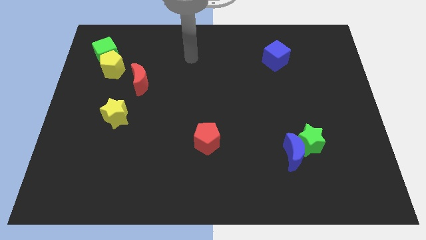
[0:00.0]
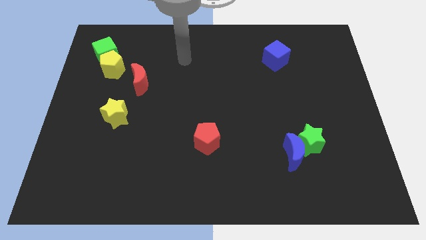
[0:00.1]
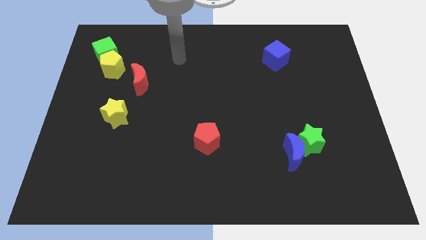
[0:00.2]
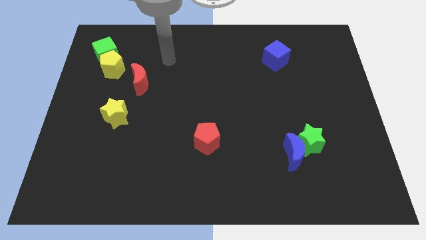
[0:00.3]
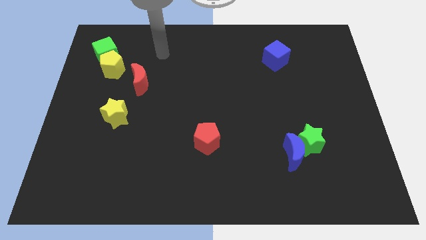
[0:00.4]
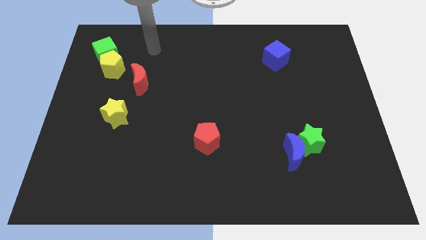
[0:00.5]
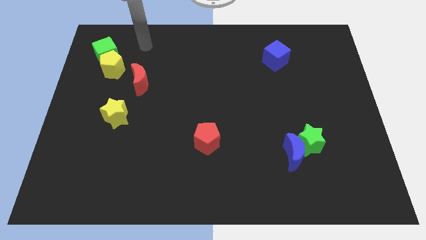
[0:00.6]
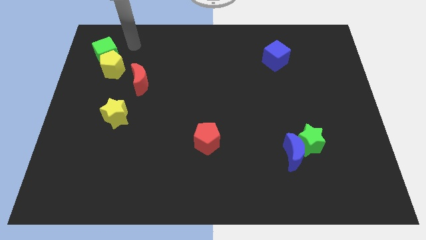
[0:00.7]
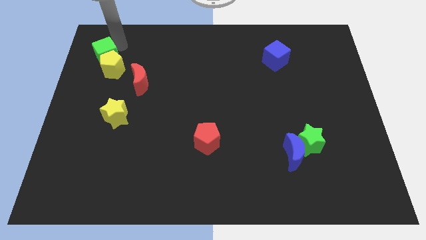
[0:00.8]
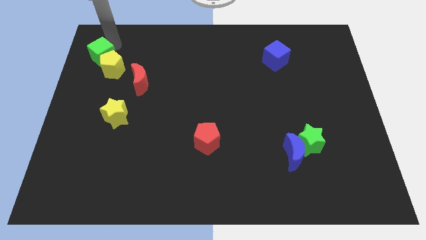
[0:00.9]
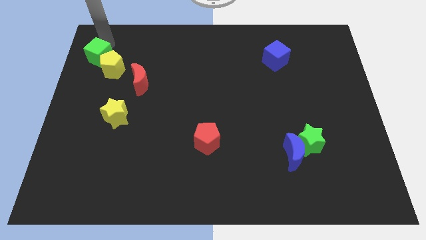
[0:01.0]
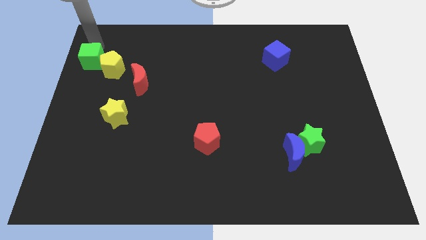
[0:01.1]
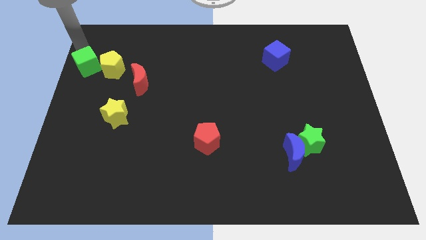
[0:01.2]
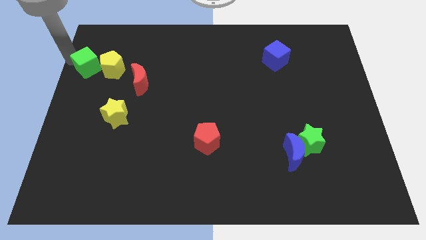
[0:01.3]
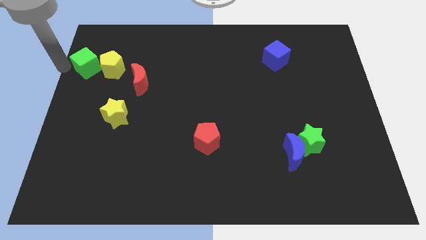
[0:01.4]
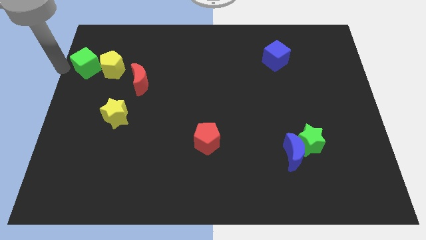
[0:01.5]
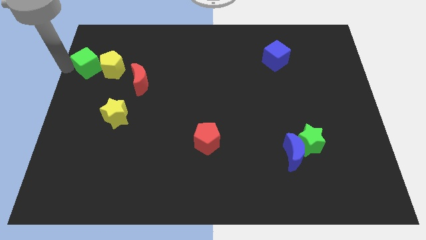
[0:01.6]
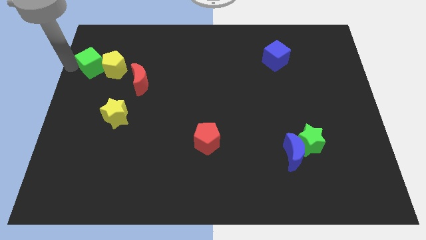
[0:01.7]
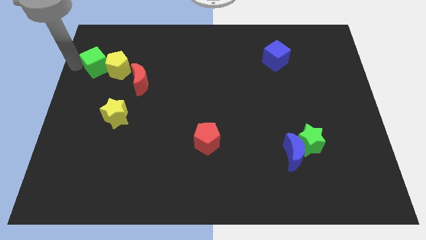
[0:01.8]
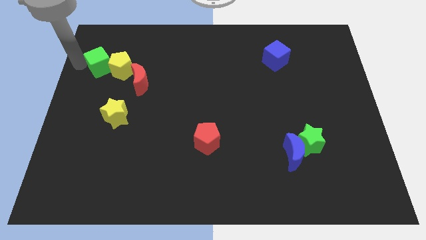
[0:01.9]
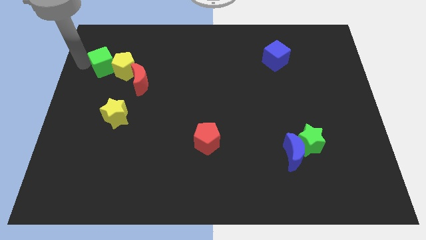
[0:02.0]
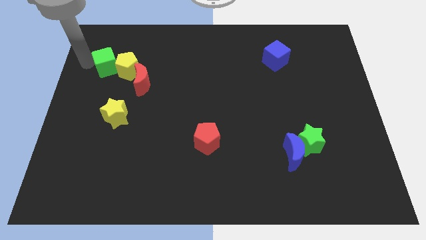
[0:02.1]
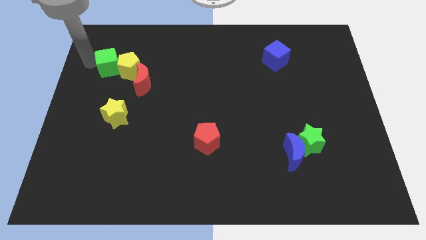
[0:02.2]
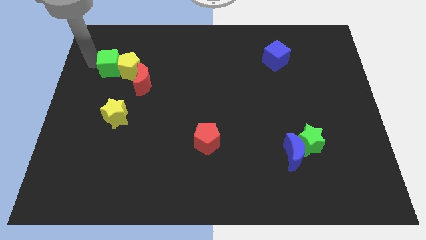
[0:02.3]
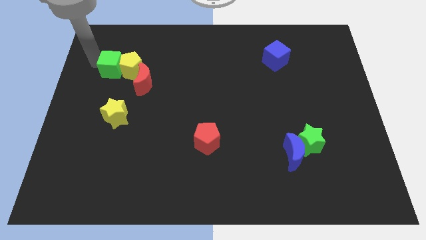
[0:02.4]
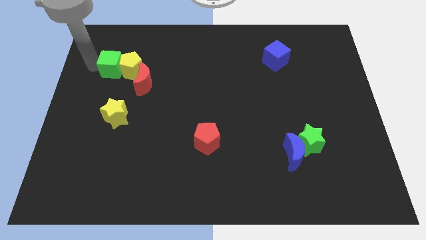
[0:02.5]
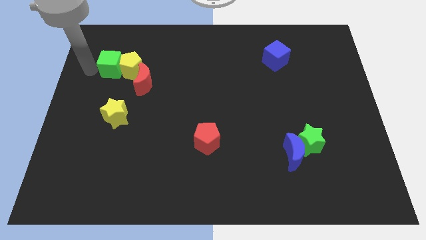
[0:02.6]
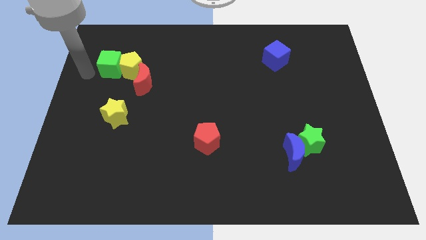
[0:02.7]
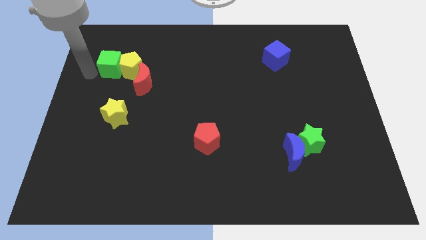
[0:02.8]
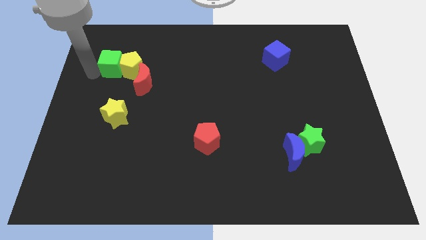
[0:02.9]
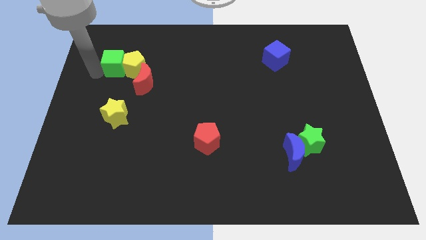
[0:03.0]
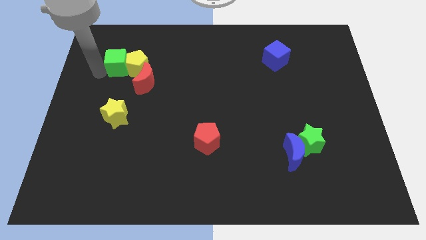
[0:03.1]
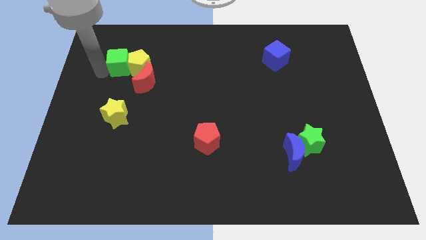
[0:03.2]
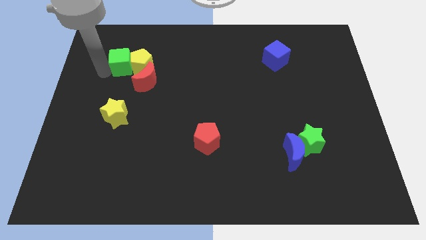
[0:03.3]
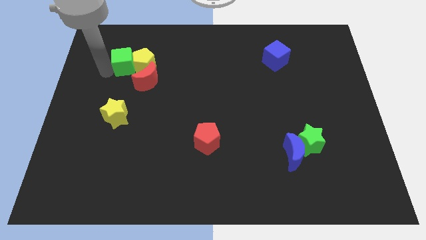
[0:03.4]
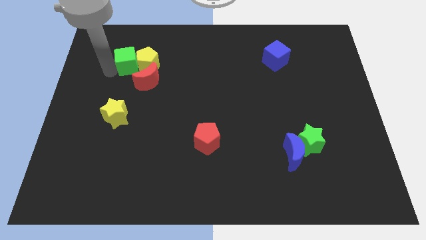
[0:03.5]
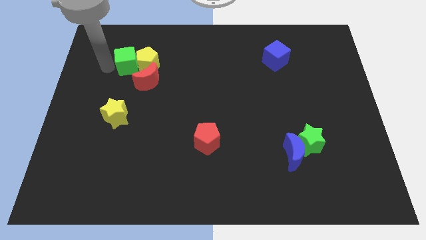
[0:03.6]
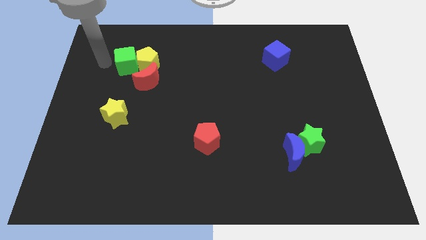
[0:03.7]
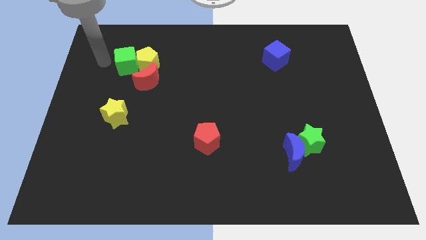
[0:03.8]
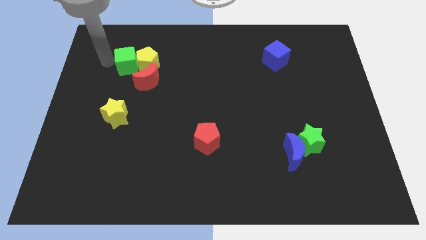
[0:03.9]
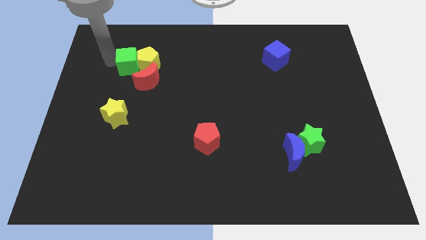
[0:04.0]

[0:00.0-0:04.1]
move the green cube somewhat downwards and then to the right

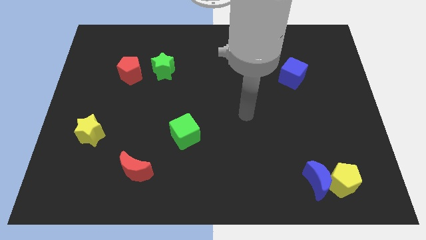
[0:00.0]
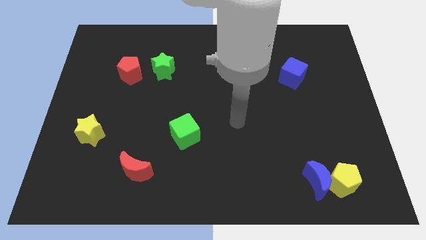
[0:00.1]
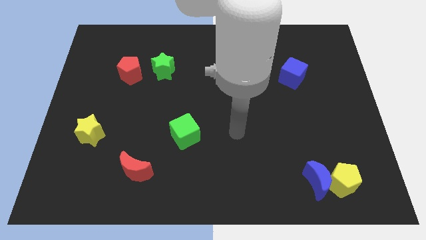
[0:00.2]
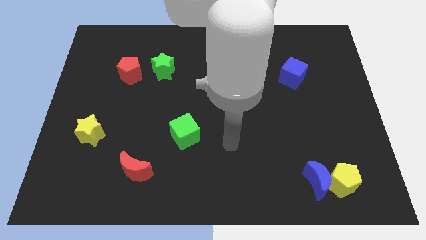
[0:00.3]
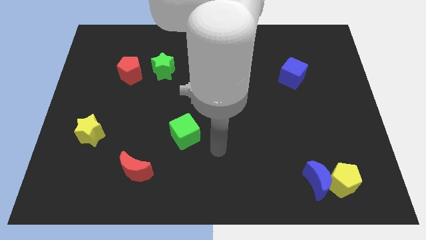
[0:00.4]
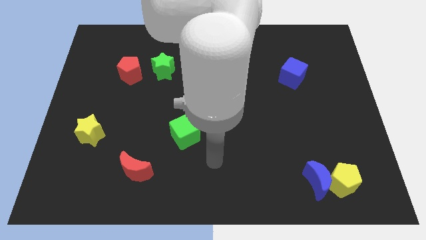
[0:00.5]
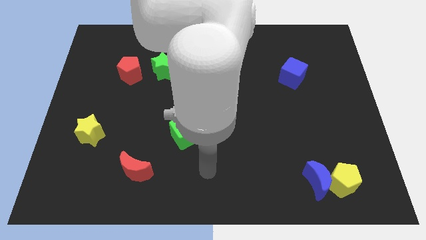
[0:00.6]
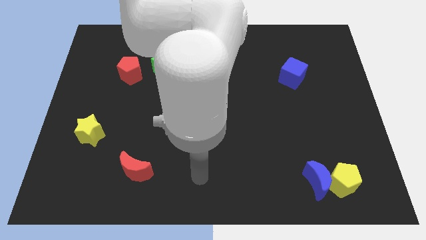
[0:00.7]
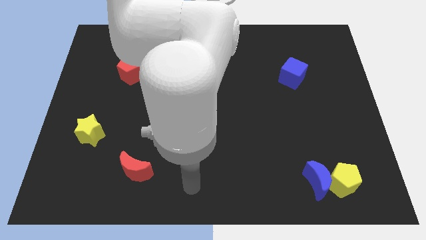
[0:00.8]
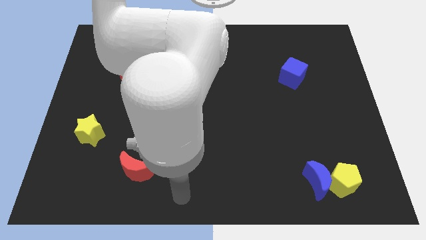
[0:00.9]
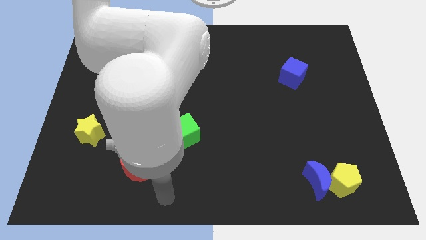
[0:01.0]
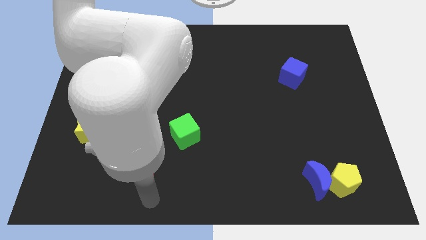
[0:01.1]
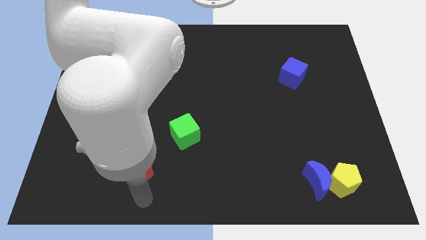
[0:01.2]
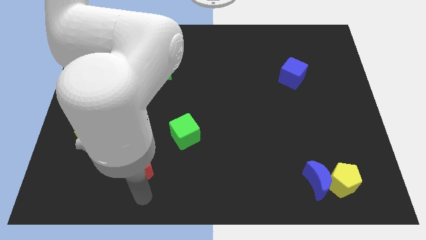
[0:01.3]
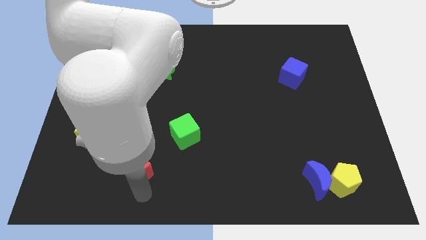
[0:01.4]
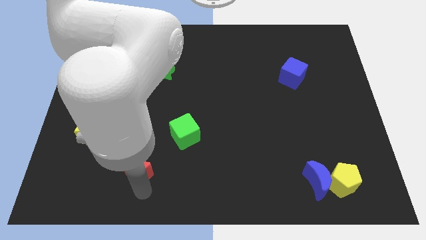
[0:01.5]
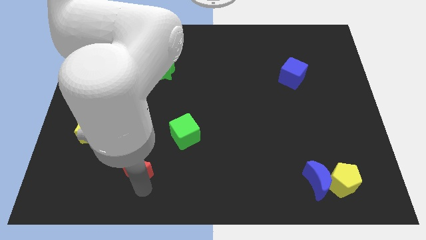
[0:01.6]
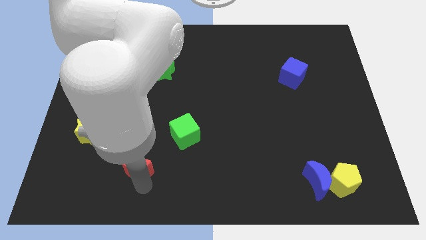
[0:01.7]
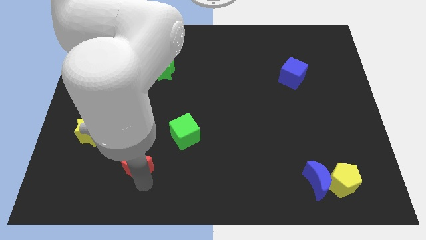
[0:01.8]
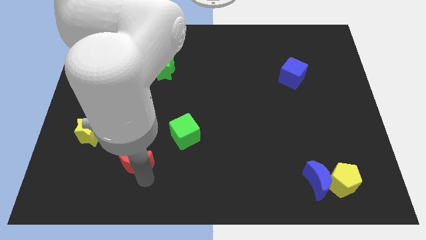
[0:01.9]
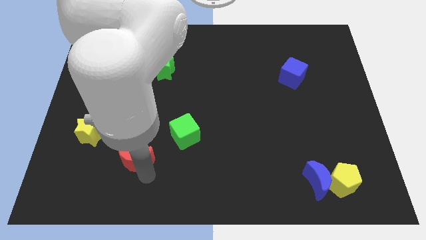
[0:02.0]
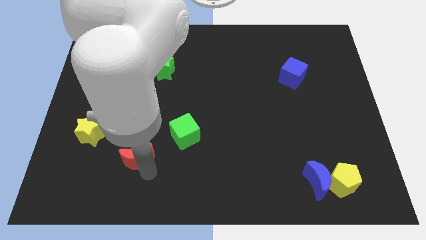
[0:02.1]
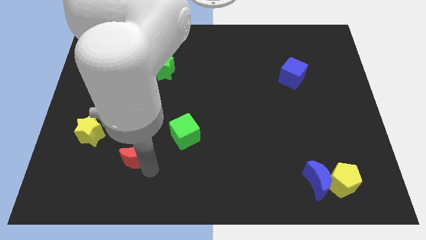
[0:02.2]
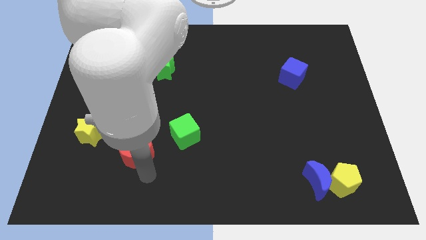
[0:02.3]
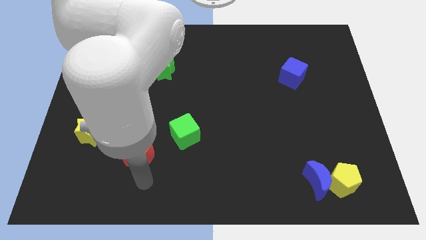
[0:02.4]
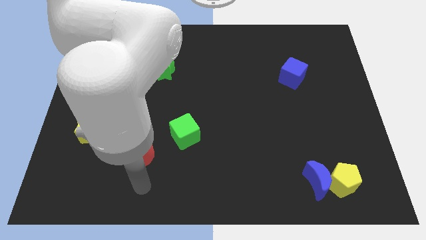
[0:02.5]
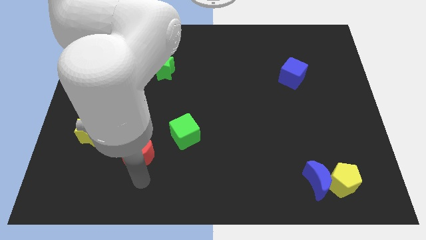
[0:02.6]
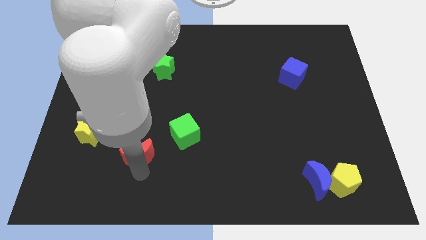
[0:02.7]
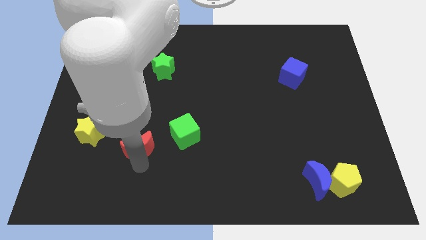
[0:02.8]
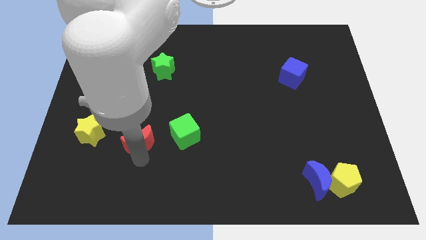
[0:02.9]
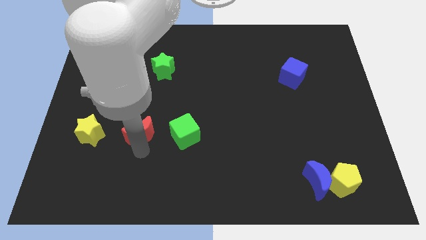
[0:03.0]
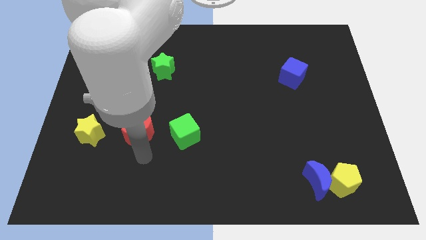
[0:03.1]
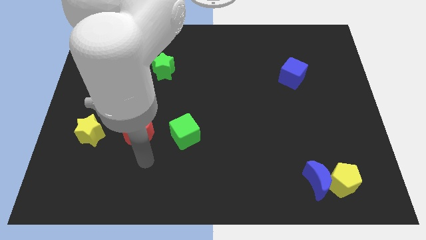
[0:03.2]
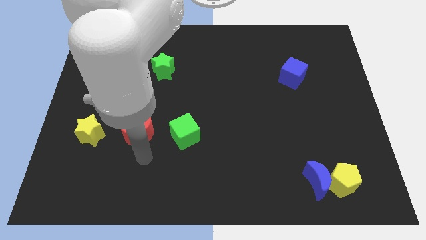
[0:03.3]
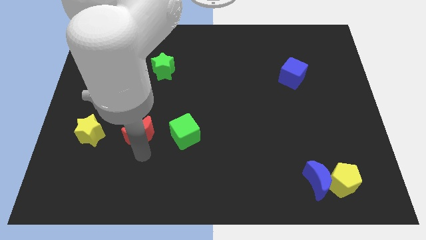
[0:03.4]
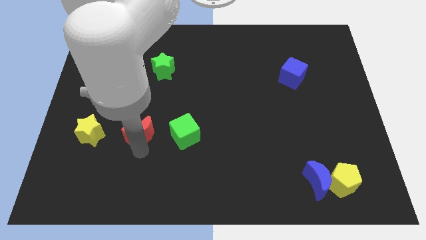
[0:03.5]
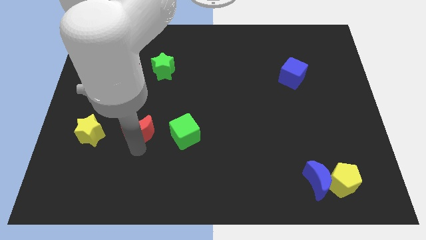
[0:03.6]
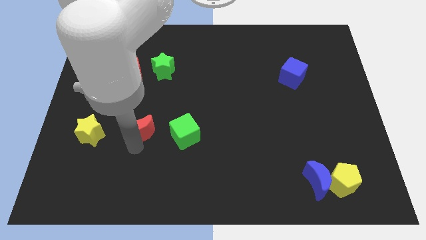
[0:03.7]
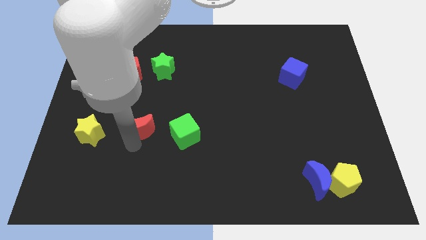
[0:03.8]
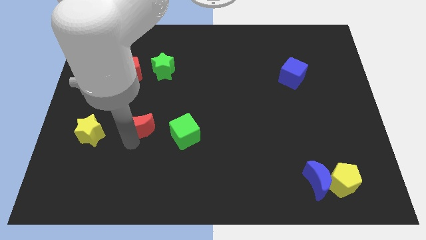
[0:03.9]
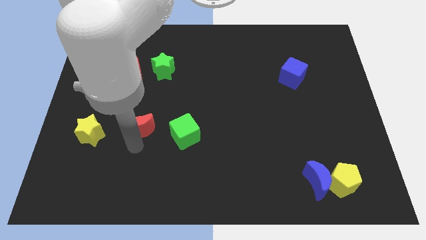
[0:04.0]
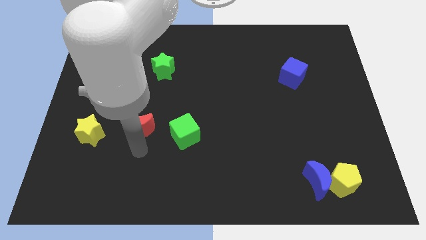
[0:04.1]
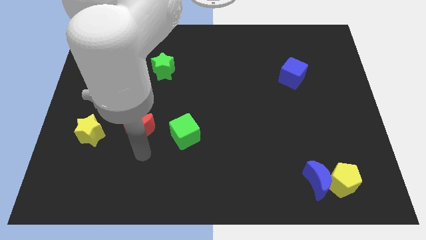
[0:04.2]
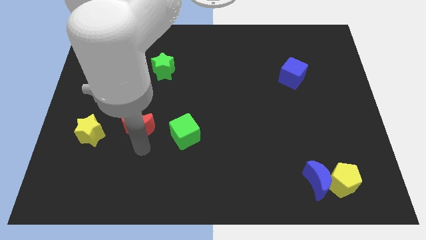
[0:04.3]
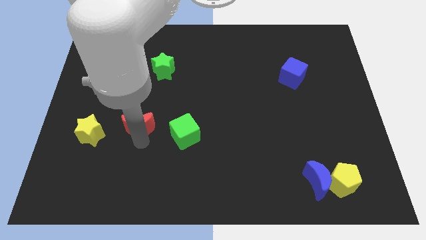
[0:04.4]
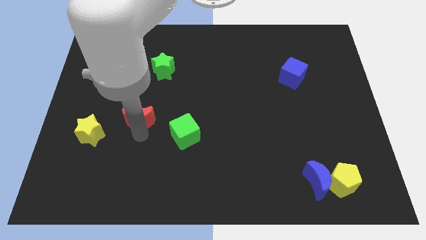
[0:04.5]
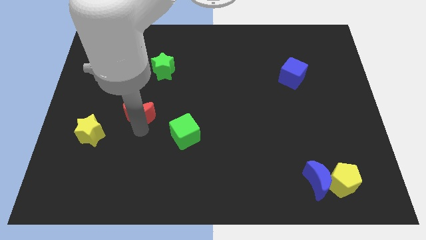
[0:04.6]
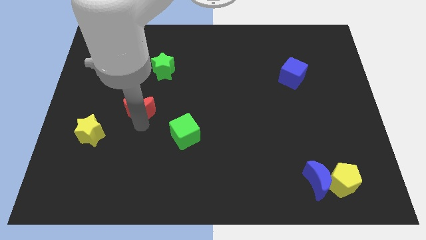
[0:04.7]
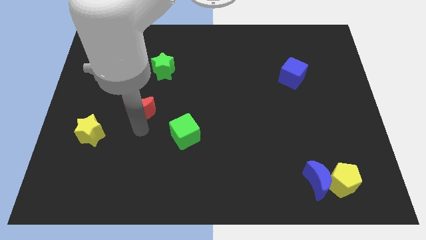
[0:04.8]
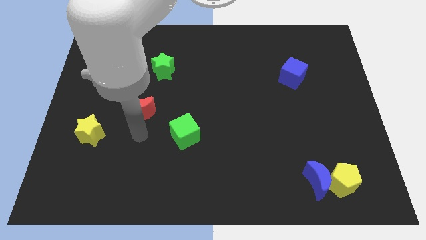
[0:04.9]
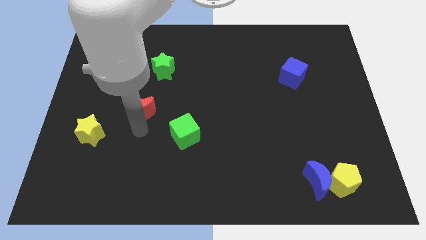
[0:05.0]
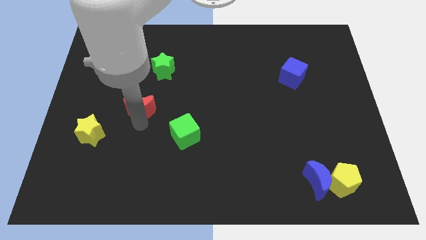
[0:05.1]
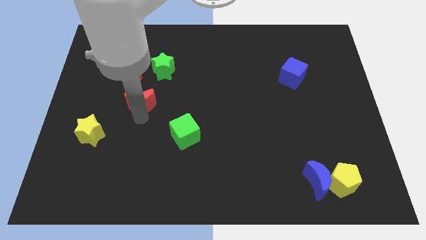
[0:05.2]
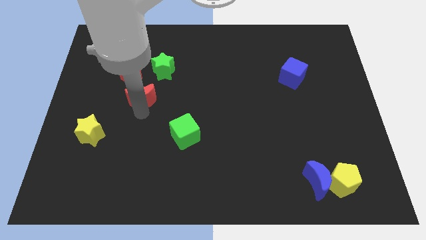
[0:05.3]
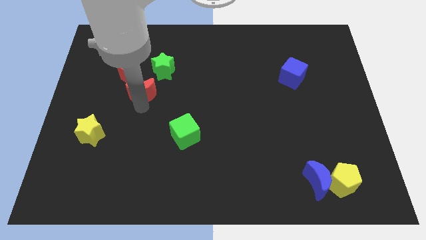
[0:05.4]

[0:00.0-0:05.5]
push the red moon up
